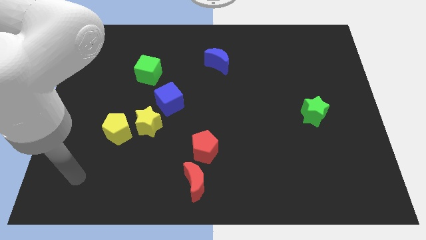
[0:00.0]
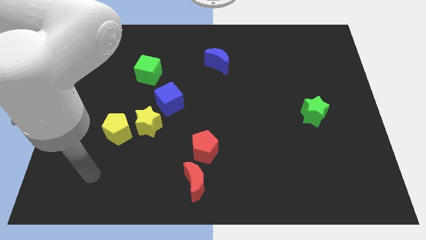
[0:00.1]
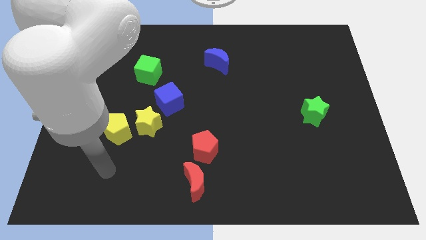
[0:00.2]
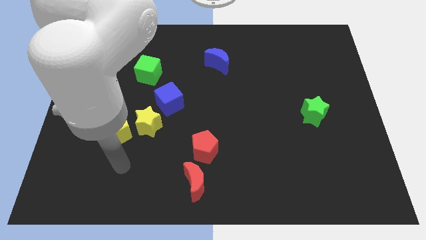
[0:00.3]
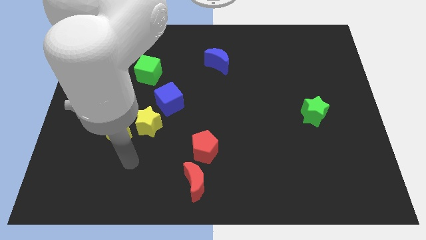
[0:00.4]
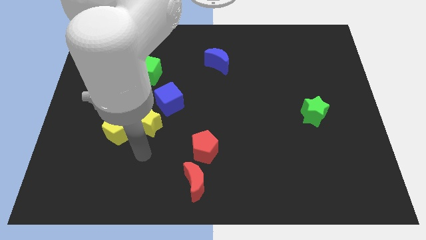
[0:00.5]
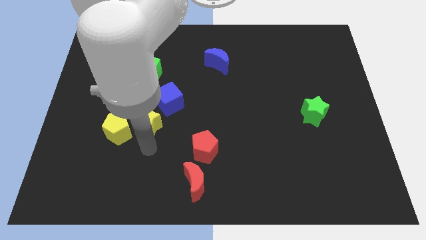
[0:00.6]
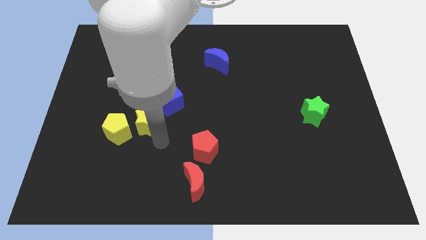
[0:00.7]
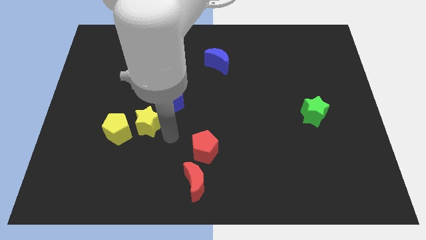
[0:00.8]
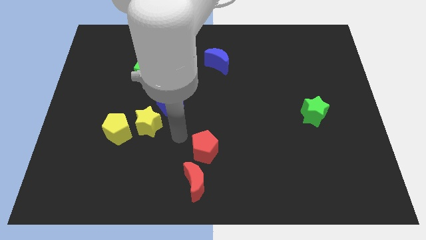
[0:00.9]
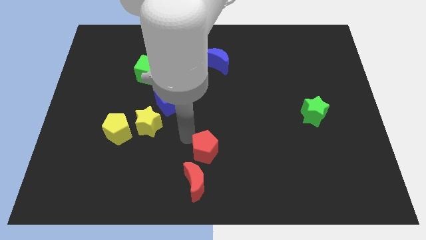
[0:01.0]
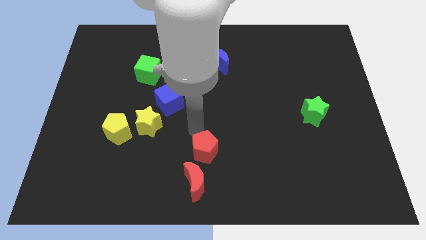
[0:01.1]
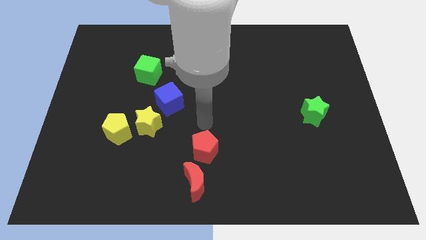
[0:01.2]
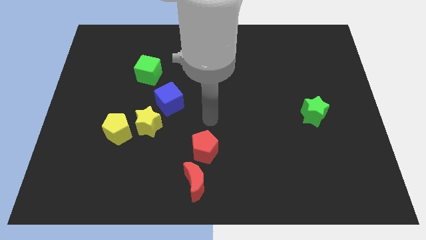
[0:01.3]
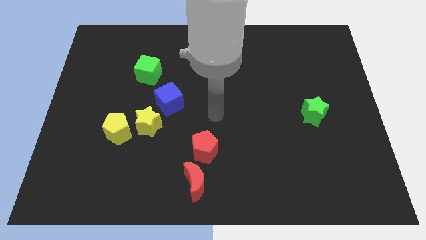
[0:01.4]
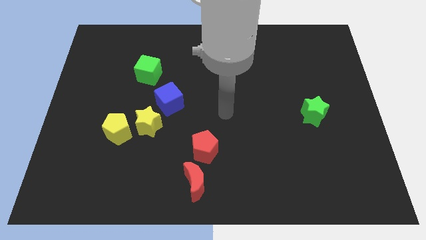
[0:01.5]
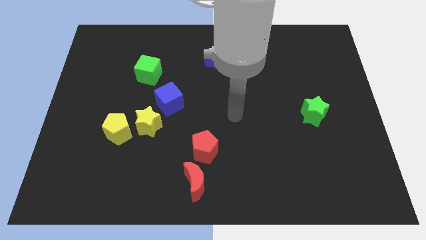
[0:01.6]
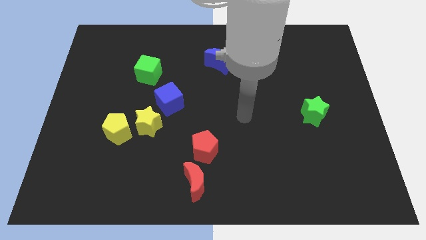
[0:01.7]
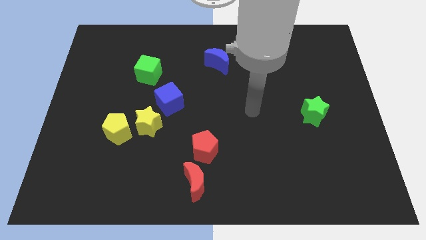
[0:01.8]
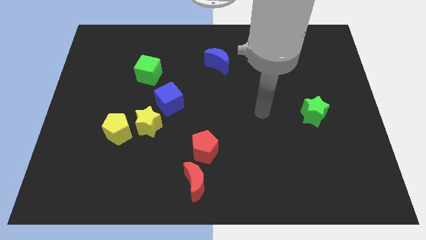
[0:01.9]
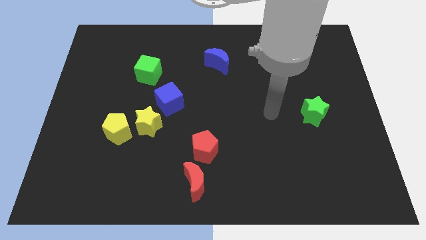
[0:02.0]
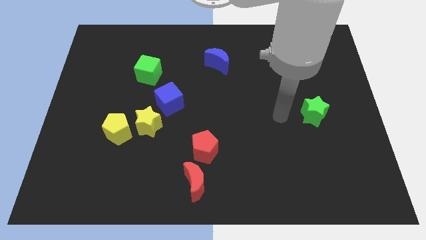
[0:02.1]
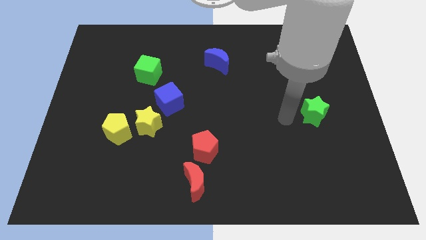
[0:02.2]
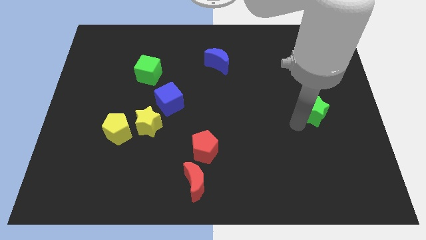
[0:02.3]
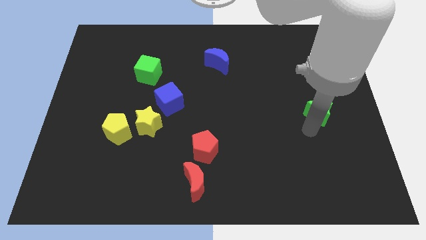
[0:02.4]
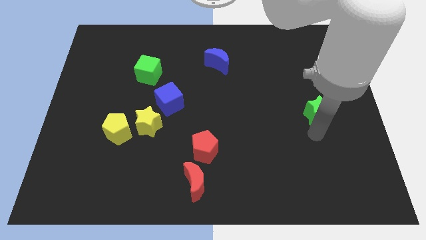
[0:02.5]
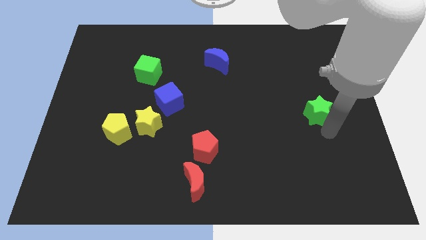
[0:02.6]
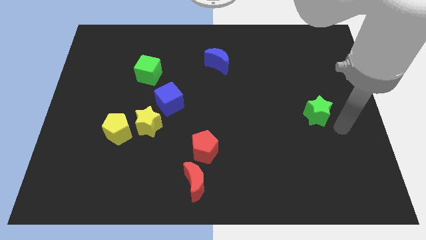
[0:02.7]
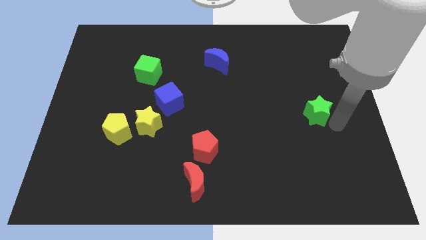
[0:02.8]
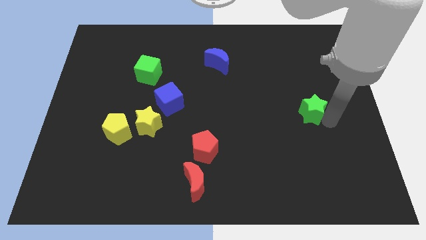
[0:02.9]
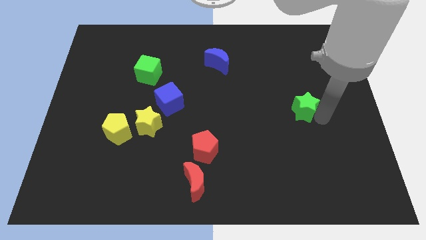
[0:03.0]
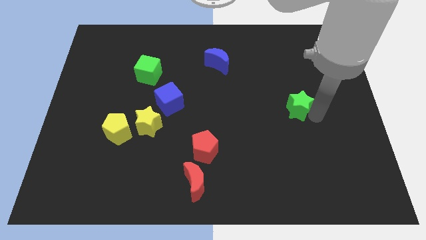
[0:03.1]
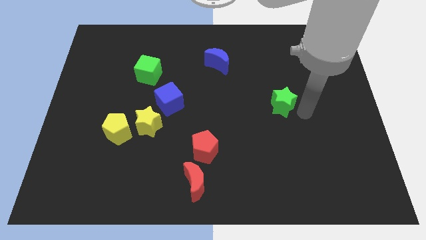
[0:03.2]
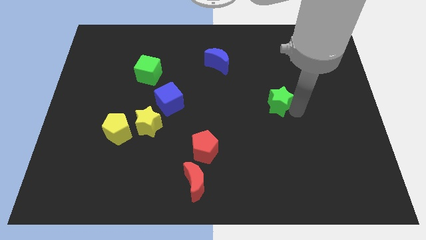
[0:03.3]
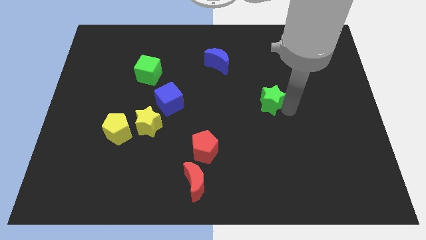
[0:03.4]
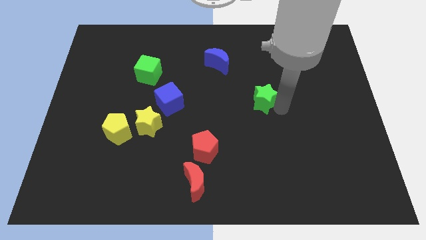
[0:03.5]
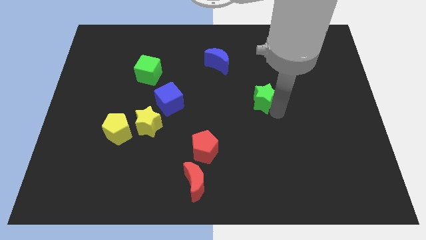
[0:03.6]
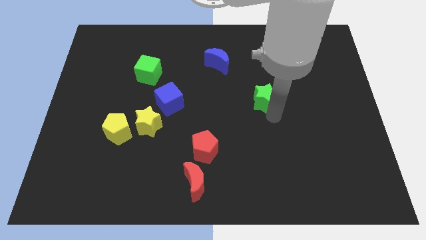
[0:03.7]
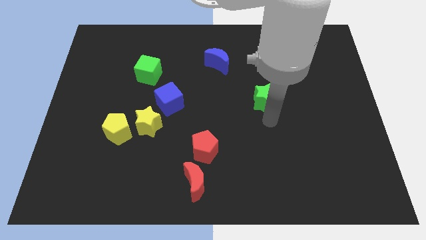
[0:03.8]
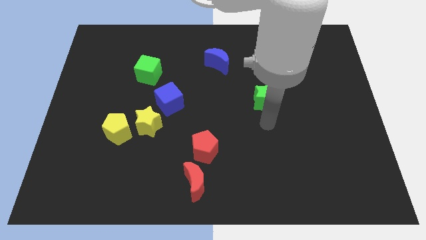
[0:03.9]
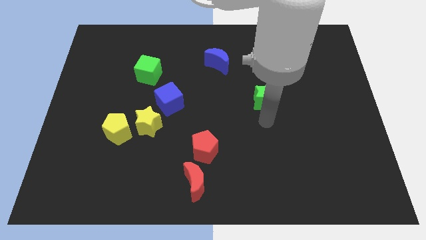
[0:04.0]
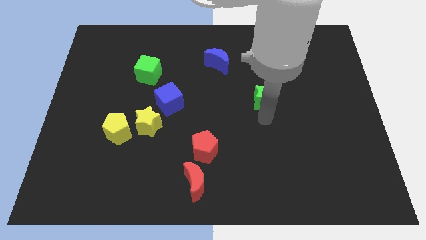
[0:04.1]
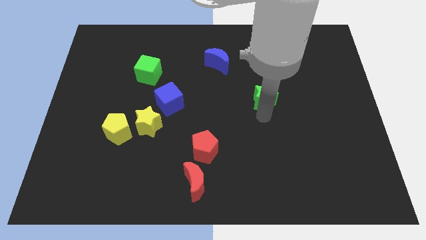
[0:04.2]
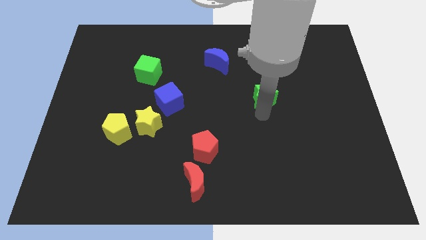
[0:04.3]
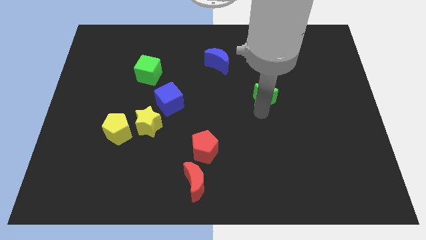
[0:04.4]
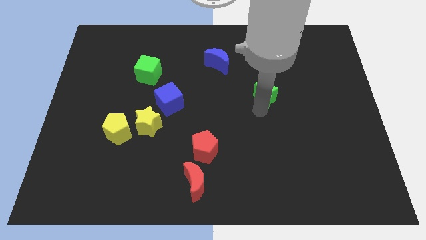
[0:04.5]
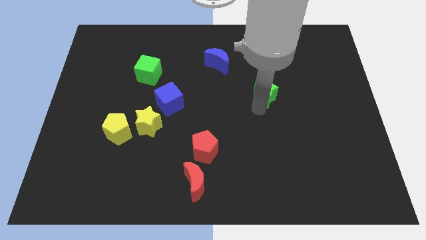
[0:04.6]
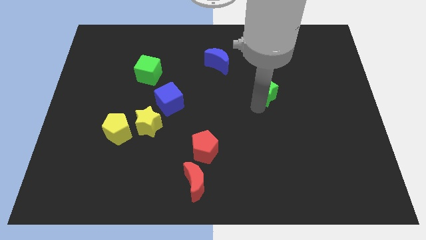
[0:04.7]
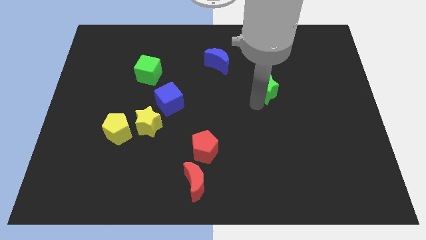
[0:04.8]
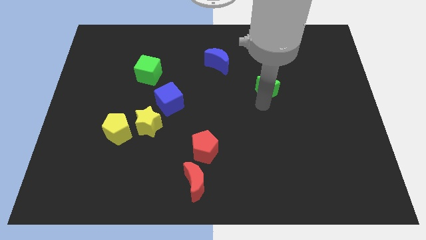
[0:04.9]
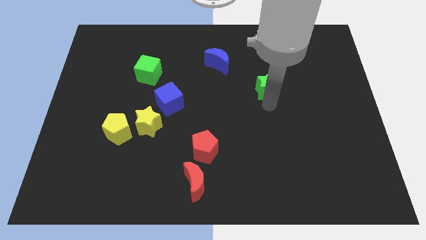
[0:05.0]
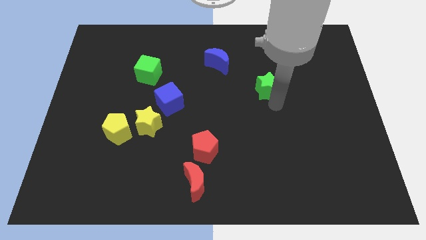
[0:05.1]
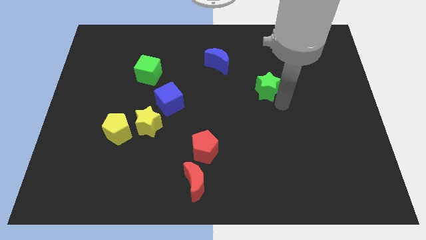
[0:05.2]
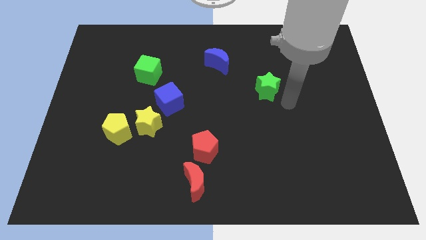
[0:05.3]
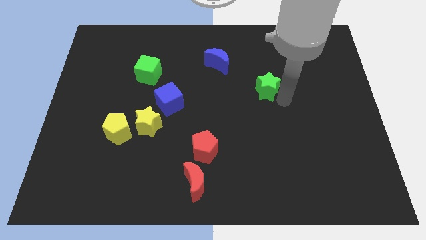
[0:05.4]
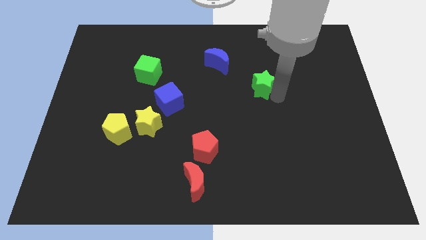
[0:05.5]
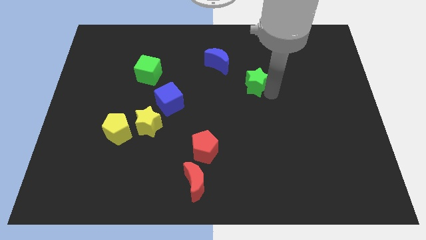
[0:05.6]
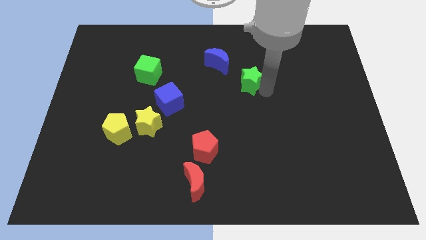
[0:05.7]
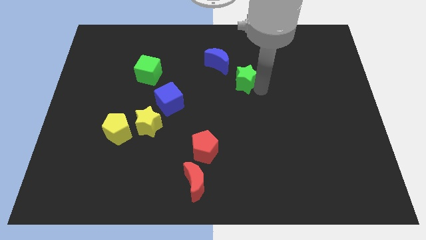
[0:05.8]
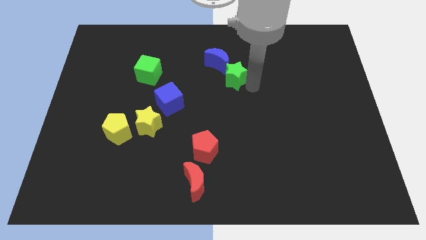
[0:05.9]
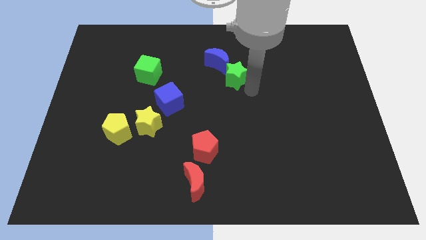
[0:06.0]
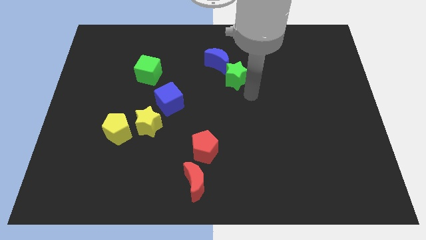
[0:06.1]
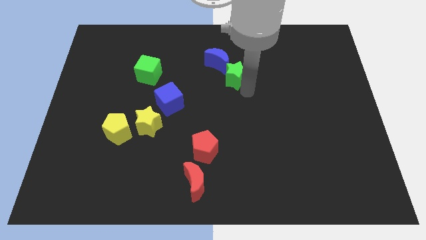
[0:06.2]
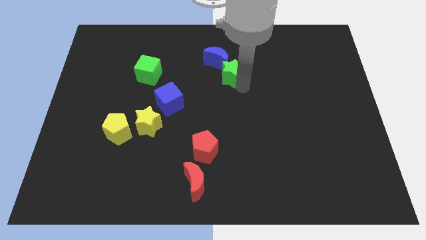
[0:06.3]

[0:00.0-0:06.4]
put the green star to the blue moon

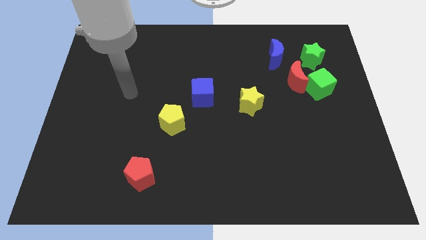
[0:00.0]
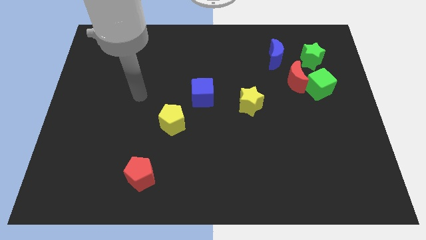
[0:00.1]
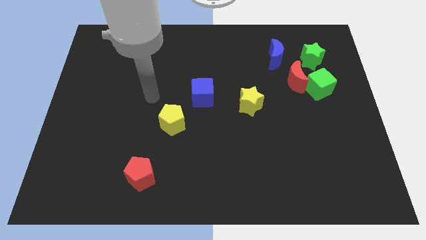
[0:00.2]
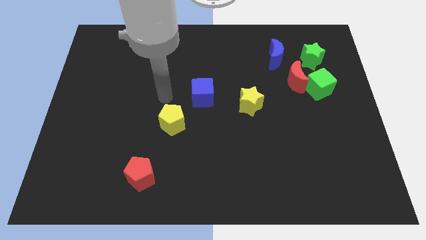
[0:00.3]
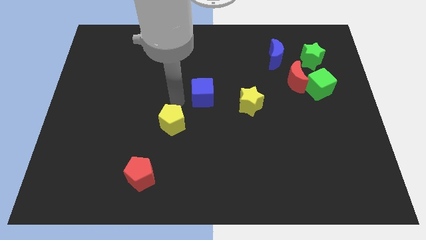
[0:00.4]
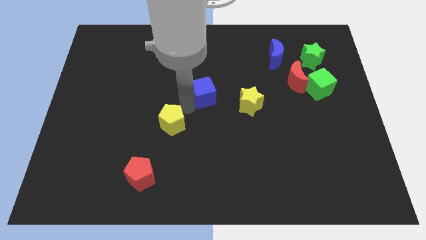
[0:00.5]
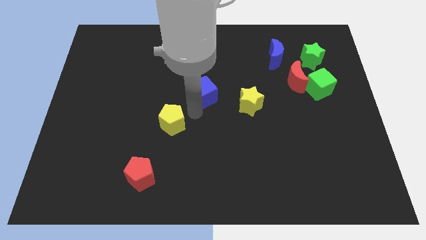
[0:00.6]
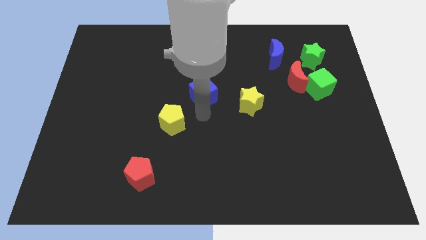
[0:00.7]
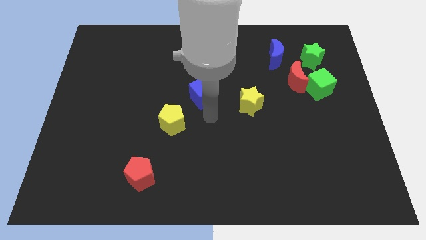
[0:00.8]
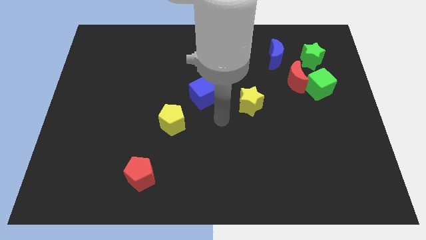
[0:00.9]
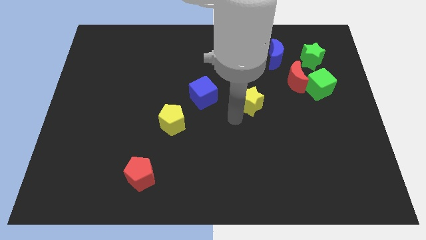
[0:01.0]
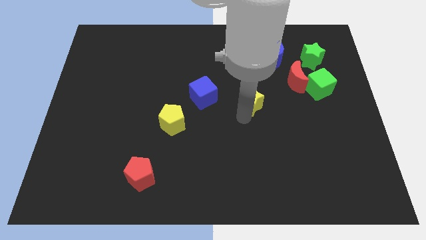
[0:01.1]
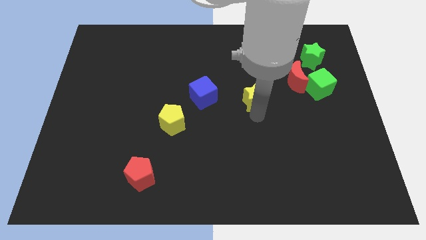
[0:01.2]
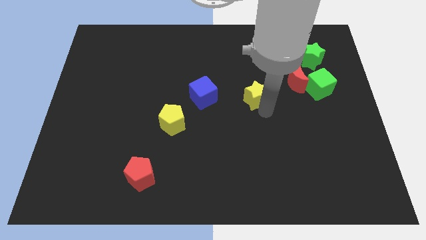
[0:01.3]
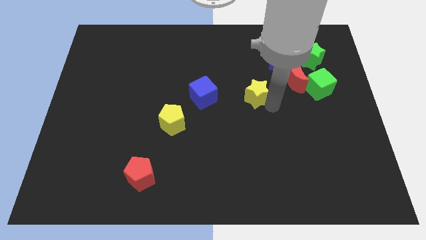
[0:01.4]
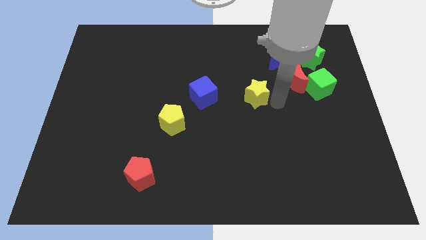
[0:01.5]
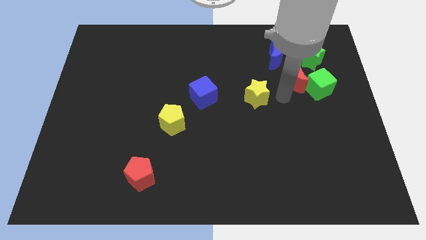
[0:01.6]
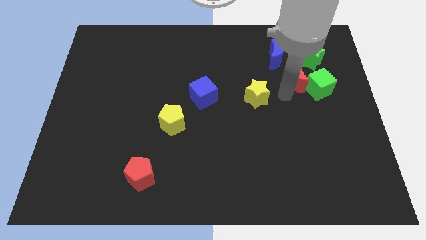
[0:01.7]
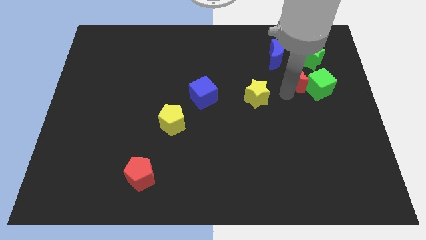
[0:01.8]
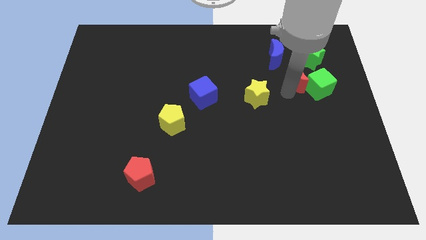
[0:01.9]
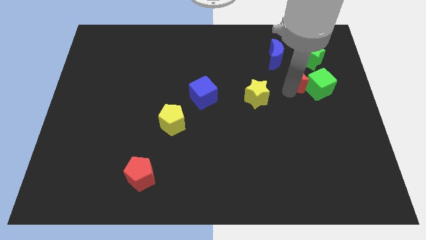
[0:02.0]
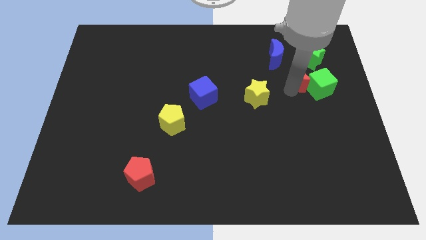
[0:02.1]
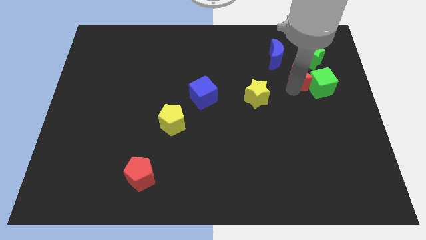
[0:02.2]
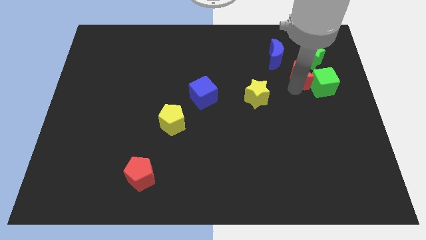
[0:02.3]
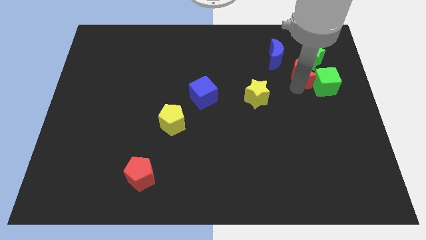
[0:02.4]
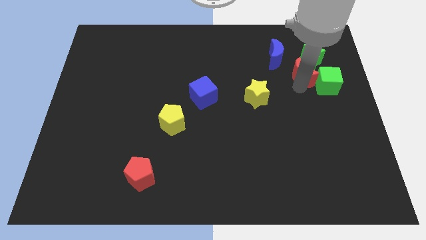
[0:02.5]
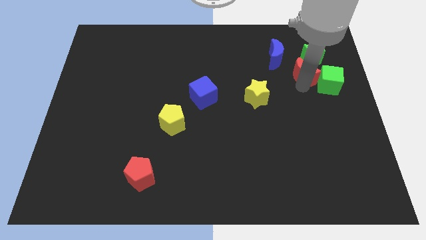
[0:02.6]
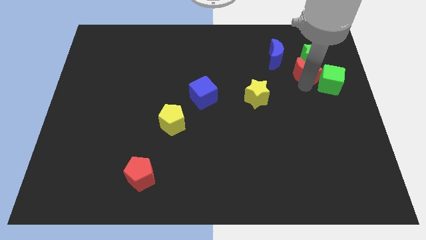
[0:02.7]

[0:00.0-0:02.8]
move the red moon close to the green star
